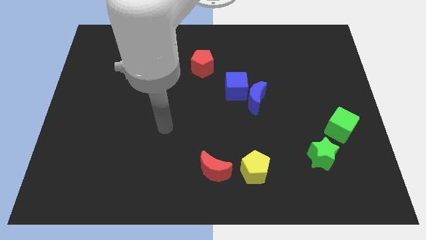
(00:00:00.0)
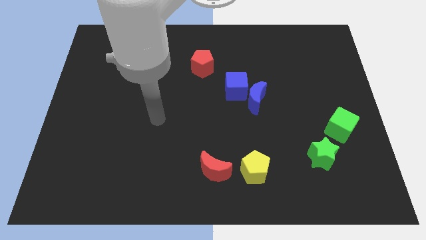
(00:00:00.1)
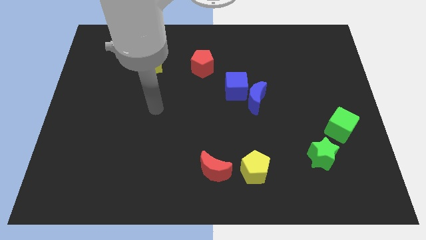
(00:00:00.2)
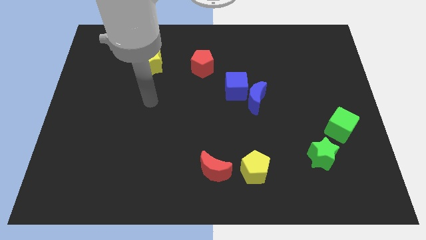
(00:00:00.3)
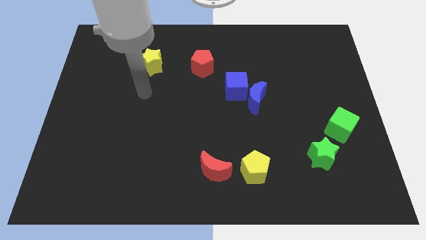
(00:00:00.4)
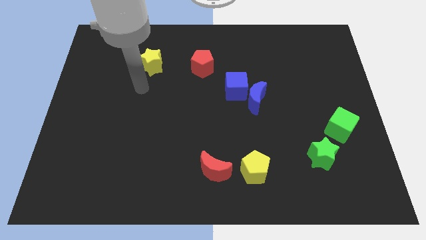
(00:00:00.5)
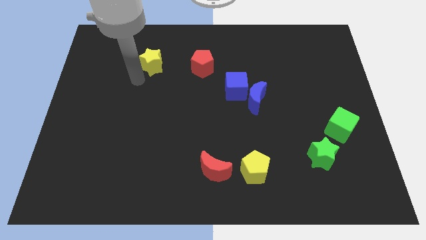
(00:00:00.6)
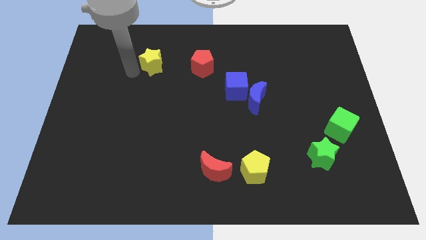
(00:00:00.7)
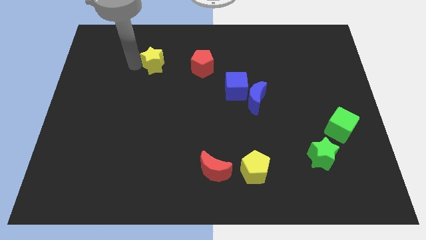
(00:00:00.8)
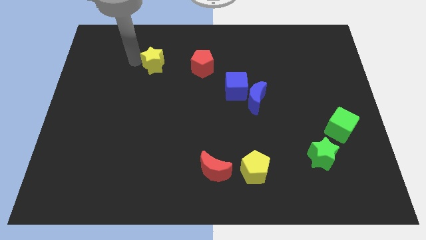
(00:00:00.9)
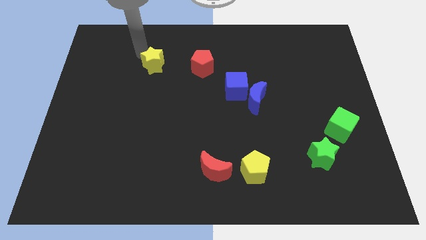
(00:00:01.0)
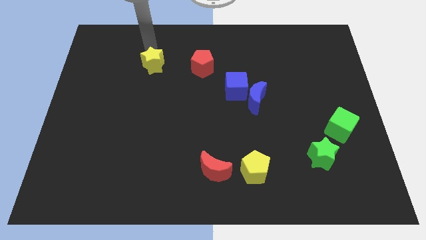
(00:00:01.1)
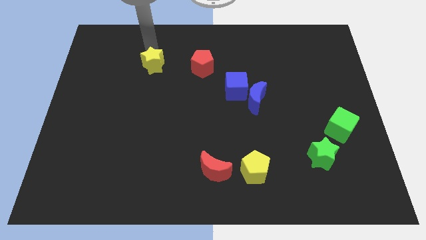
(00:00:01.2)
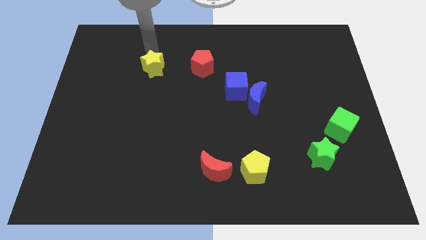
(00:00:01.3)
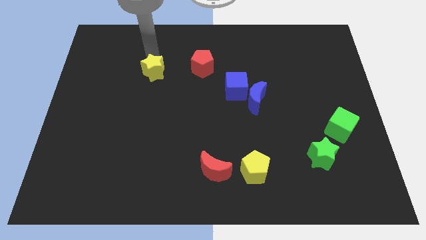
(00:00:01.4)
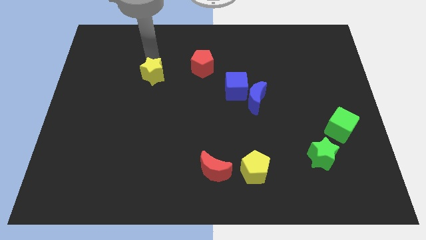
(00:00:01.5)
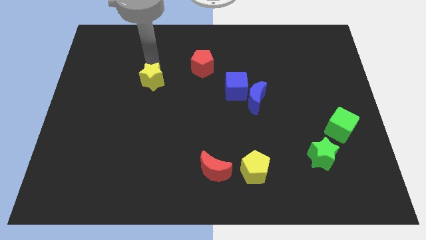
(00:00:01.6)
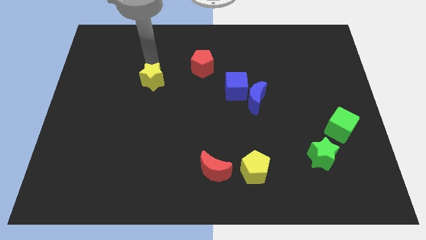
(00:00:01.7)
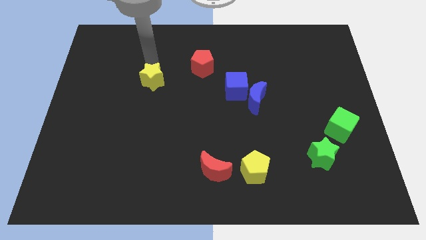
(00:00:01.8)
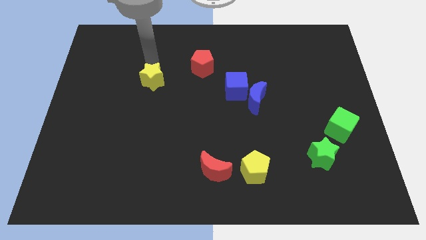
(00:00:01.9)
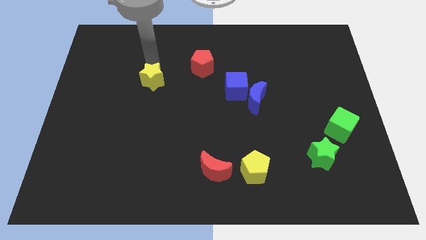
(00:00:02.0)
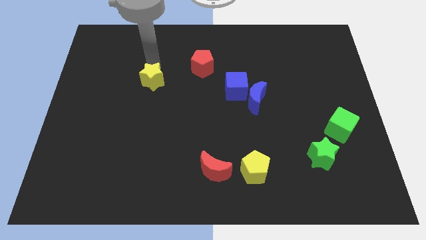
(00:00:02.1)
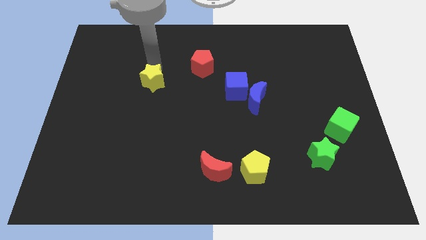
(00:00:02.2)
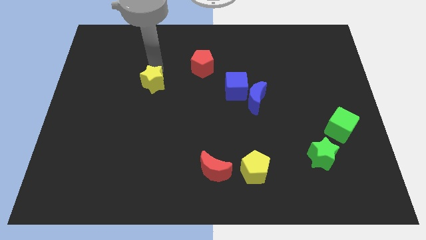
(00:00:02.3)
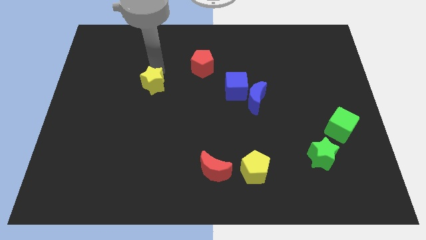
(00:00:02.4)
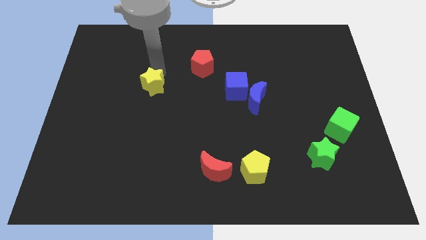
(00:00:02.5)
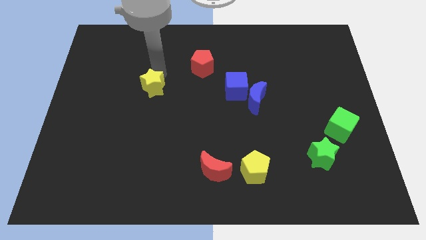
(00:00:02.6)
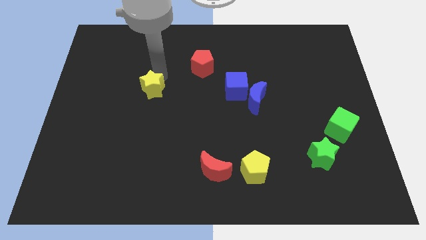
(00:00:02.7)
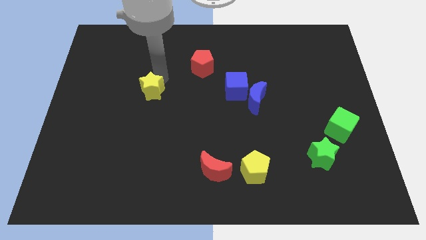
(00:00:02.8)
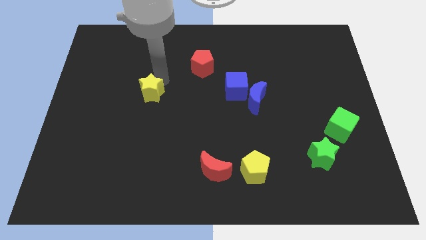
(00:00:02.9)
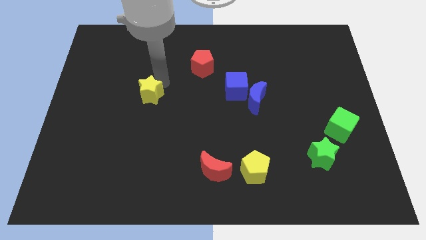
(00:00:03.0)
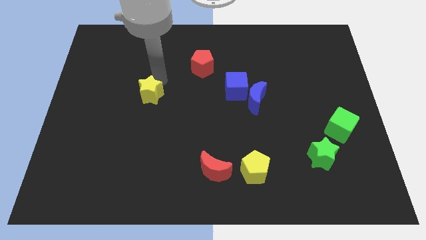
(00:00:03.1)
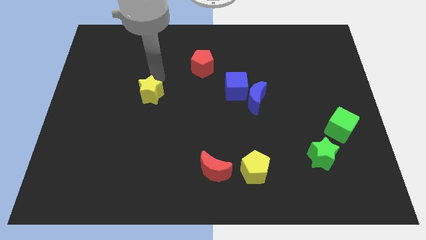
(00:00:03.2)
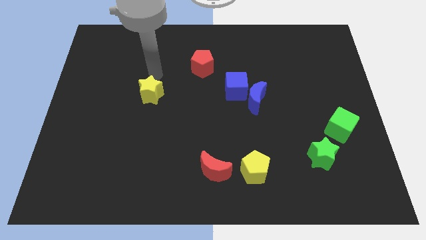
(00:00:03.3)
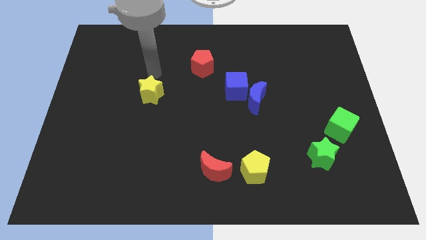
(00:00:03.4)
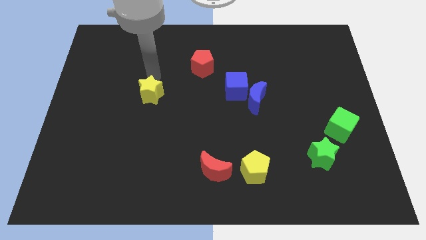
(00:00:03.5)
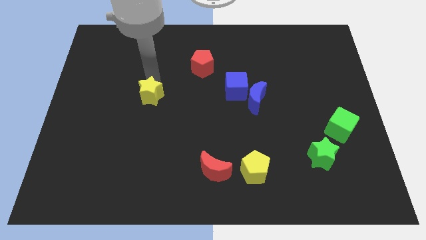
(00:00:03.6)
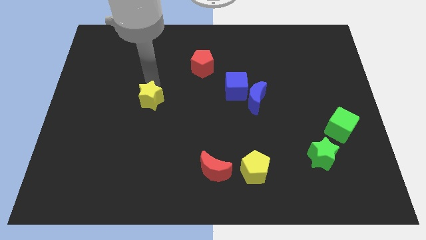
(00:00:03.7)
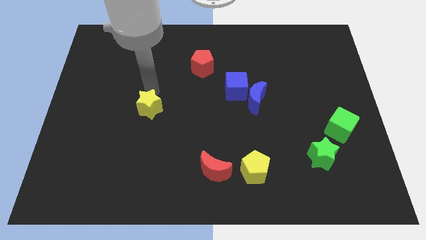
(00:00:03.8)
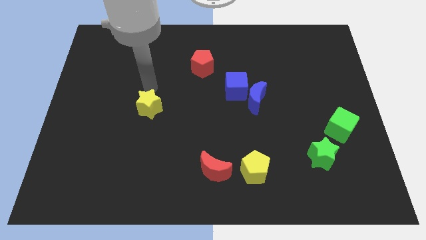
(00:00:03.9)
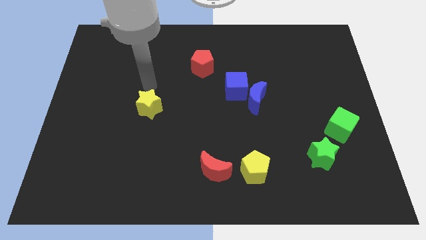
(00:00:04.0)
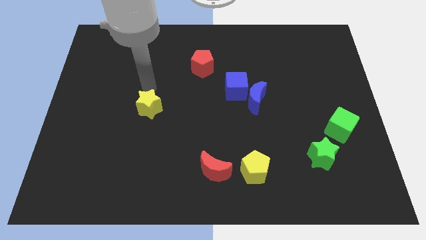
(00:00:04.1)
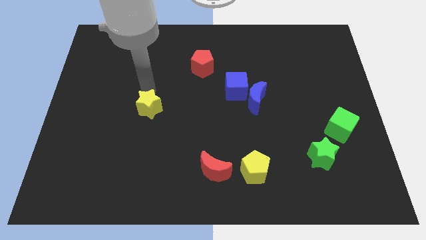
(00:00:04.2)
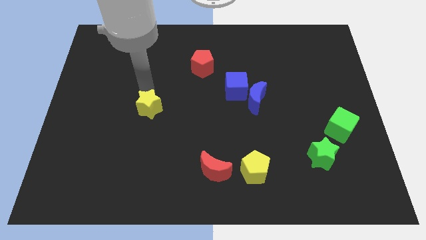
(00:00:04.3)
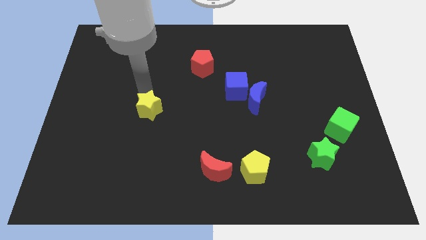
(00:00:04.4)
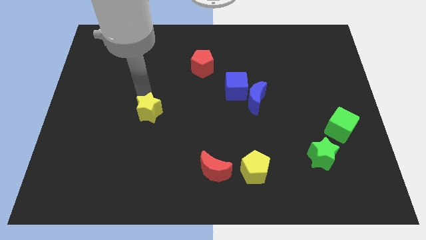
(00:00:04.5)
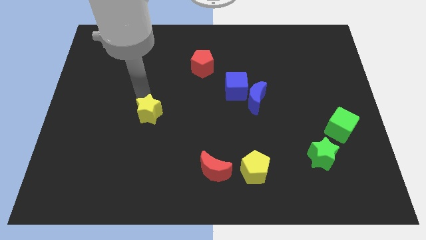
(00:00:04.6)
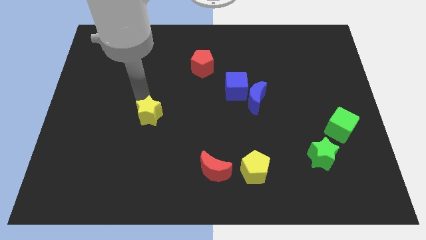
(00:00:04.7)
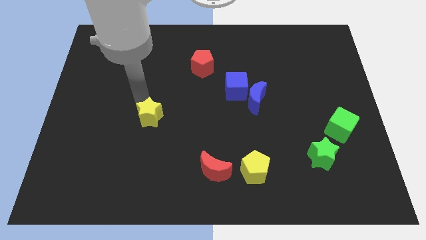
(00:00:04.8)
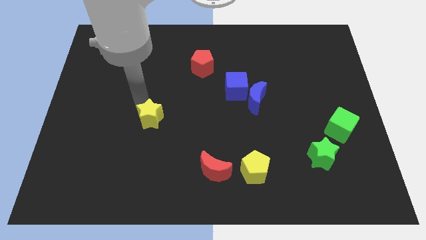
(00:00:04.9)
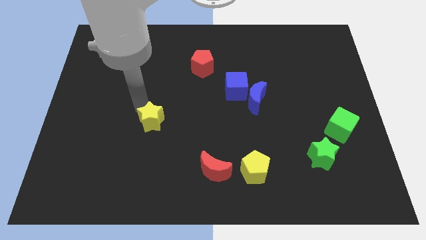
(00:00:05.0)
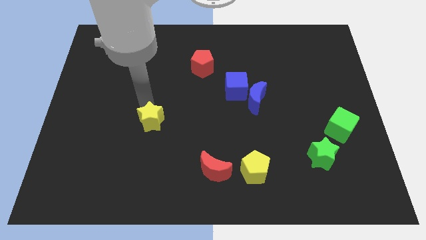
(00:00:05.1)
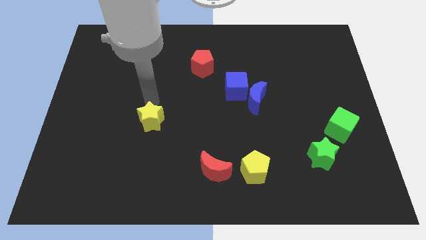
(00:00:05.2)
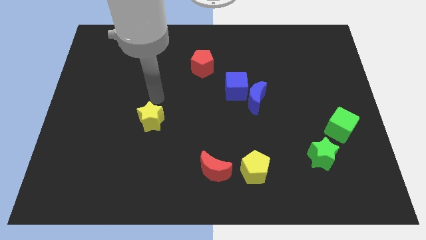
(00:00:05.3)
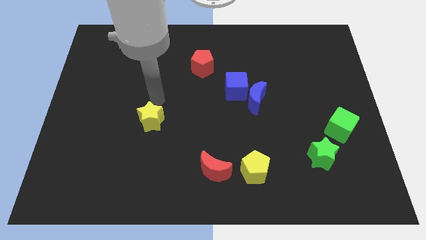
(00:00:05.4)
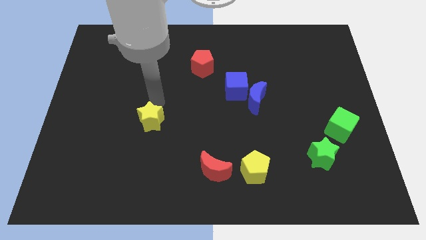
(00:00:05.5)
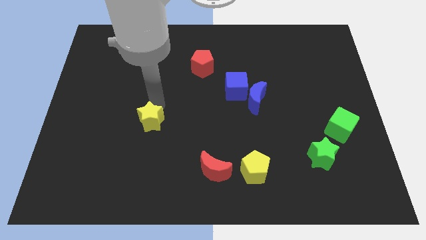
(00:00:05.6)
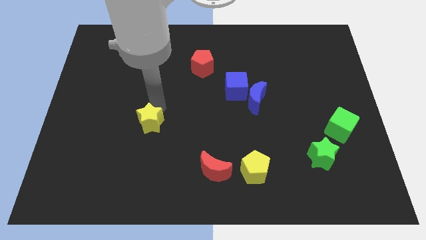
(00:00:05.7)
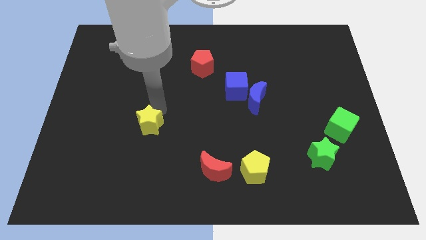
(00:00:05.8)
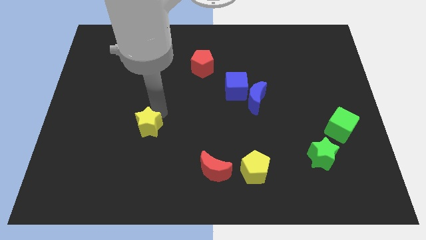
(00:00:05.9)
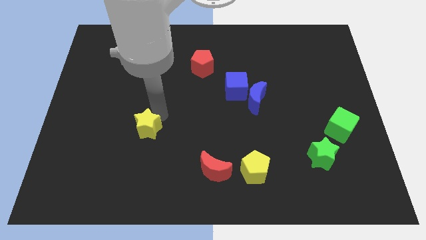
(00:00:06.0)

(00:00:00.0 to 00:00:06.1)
slide the yellow star downwards

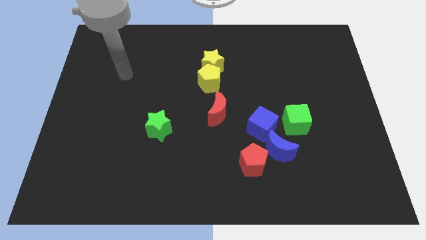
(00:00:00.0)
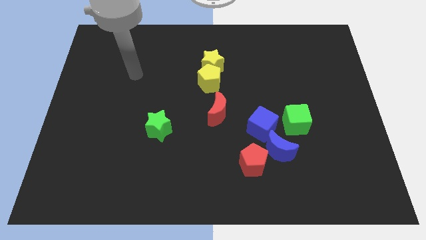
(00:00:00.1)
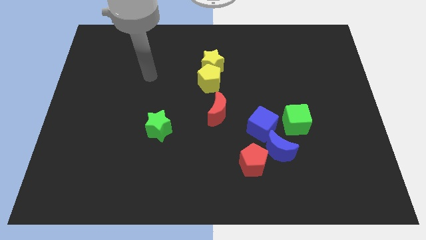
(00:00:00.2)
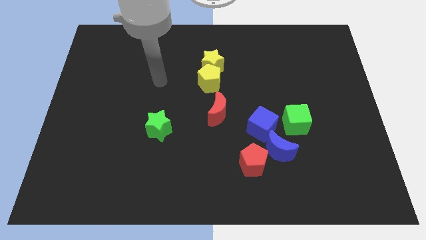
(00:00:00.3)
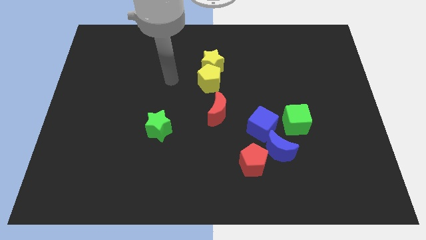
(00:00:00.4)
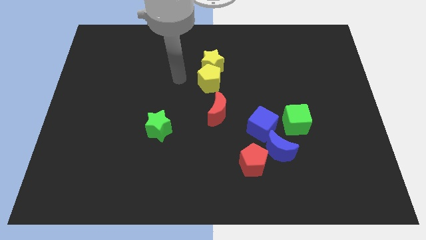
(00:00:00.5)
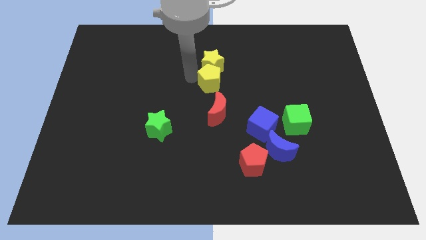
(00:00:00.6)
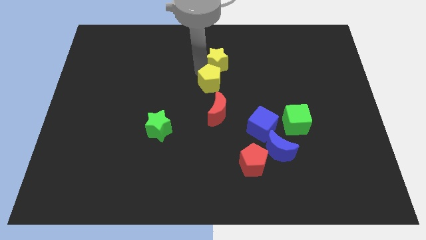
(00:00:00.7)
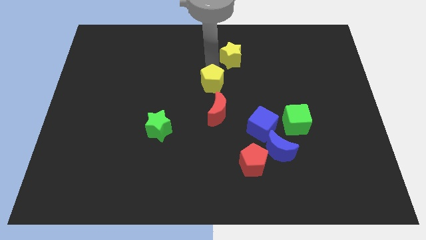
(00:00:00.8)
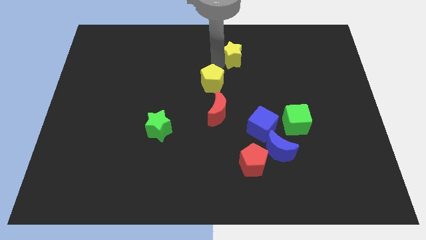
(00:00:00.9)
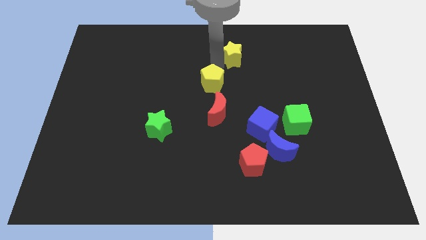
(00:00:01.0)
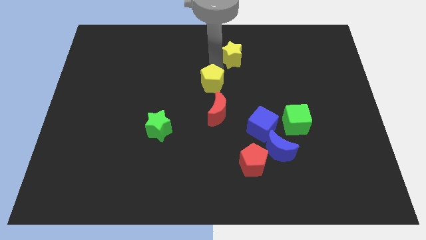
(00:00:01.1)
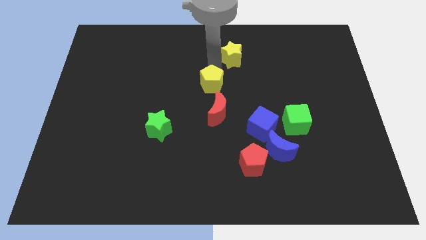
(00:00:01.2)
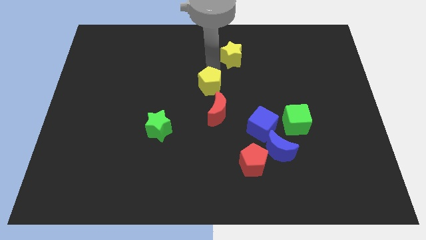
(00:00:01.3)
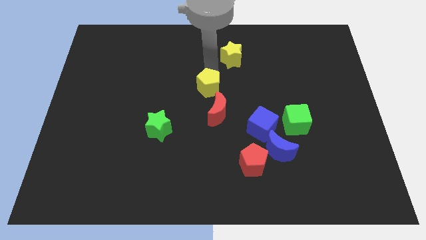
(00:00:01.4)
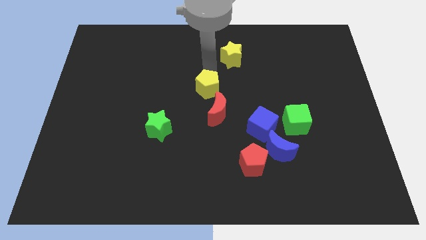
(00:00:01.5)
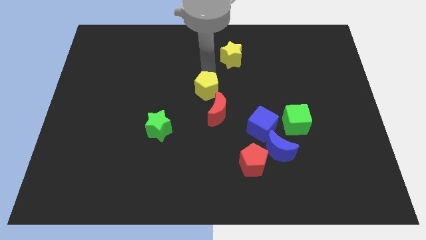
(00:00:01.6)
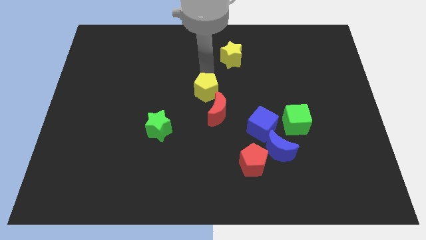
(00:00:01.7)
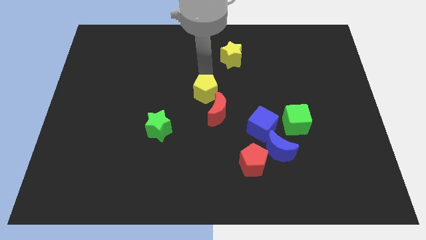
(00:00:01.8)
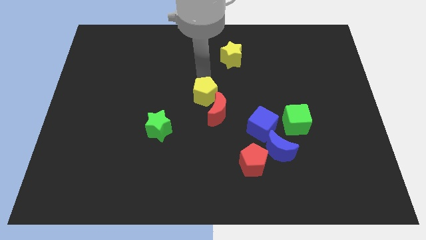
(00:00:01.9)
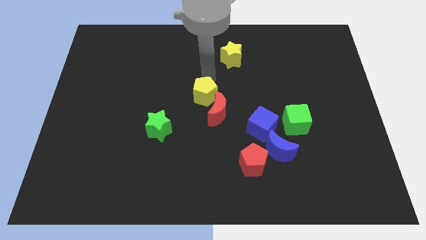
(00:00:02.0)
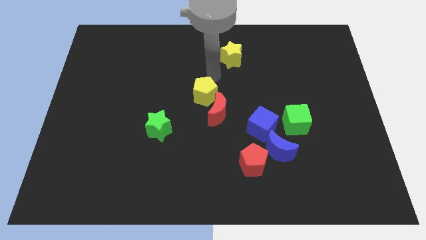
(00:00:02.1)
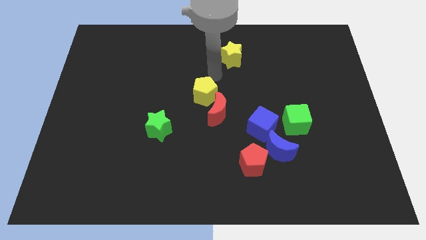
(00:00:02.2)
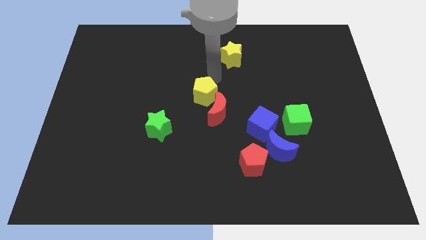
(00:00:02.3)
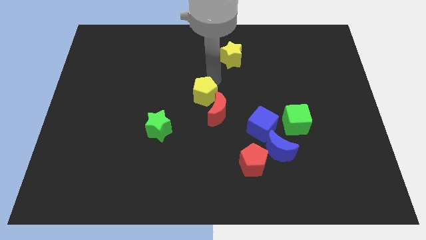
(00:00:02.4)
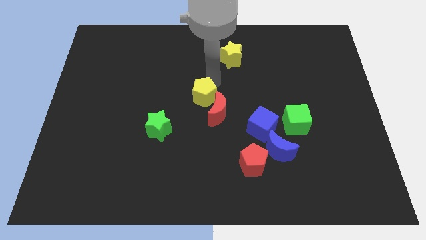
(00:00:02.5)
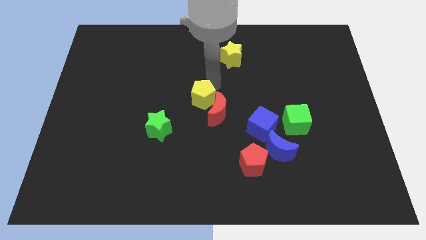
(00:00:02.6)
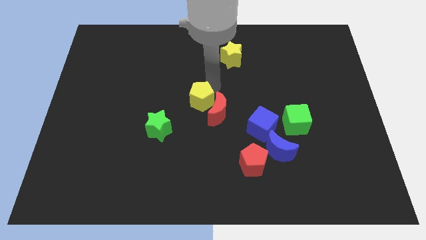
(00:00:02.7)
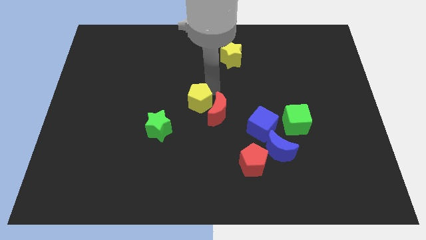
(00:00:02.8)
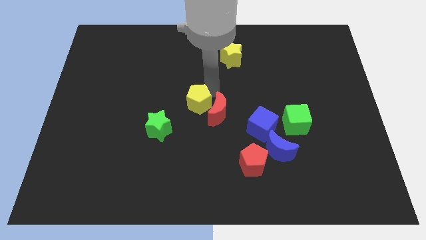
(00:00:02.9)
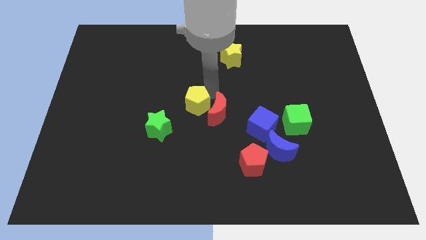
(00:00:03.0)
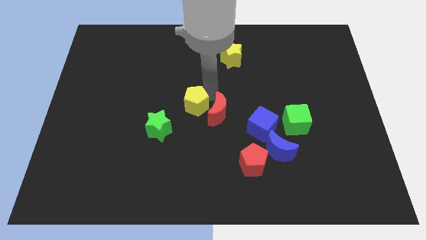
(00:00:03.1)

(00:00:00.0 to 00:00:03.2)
move the yellow pentagon slightly down
